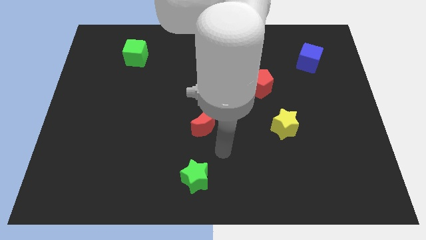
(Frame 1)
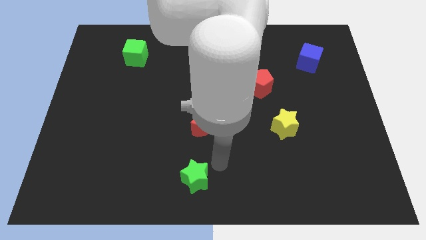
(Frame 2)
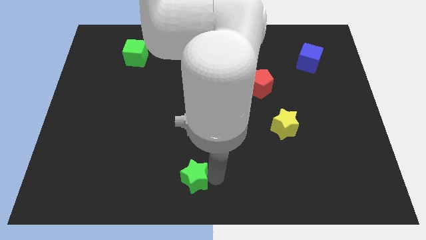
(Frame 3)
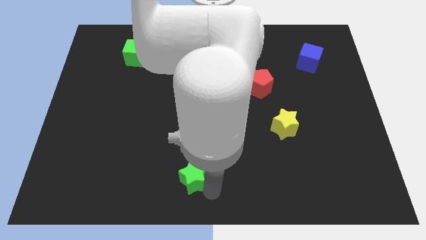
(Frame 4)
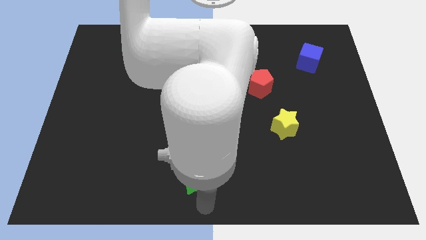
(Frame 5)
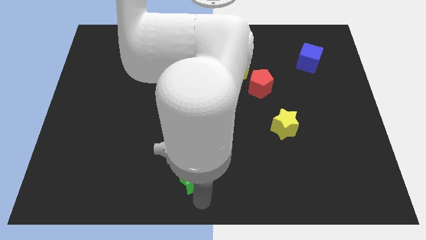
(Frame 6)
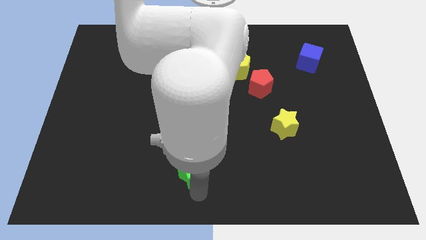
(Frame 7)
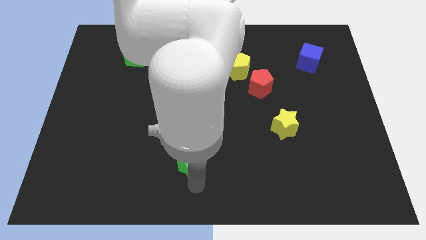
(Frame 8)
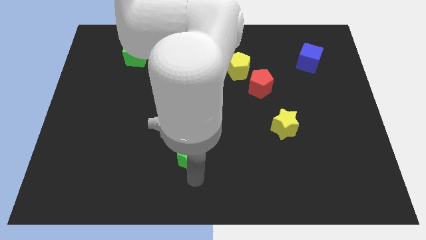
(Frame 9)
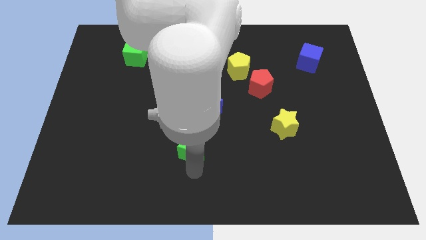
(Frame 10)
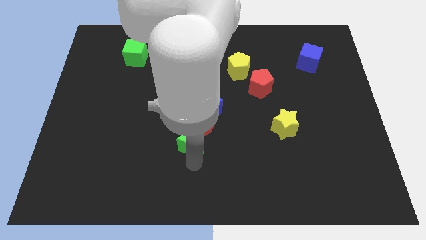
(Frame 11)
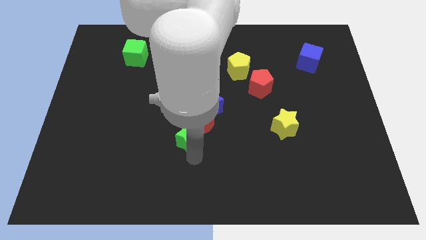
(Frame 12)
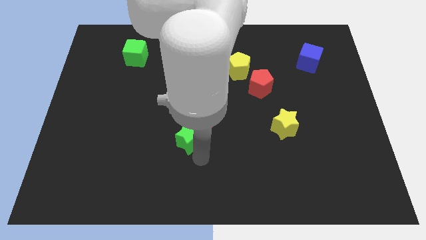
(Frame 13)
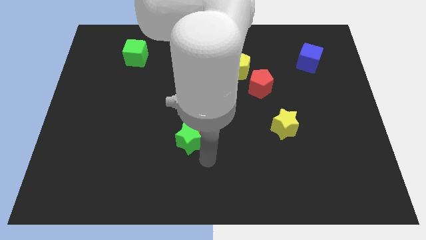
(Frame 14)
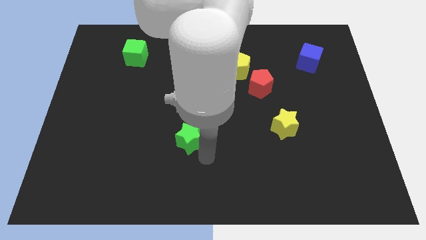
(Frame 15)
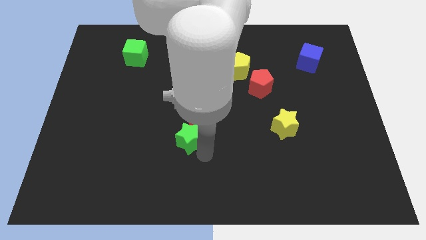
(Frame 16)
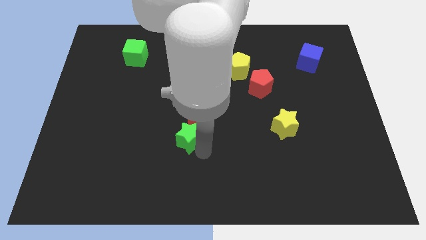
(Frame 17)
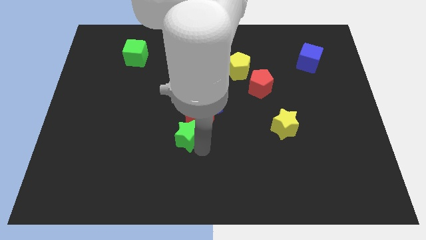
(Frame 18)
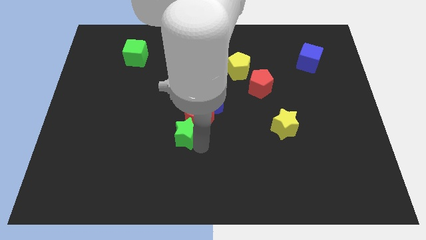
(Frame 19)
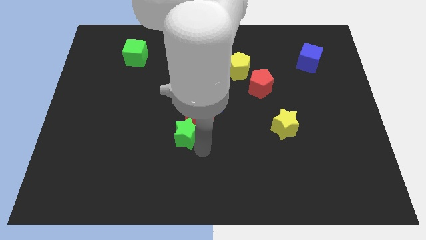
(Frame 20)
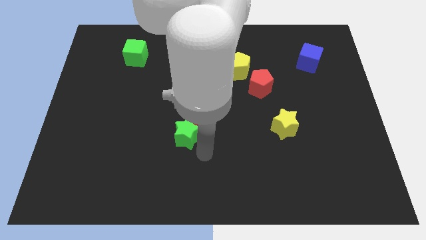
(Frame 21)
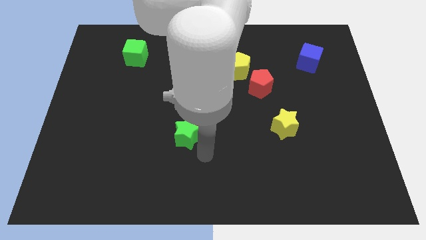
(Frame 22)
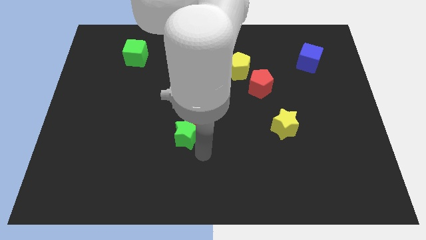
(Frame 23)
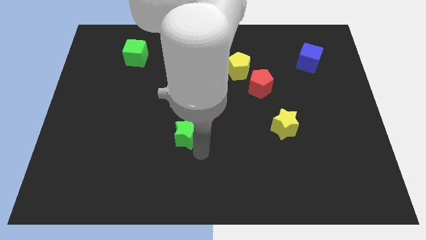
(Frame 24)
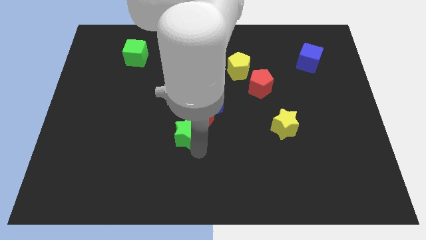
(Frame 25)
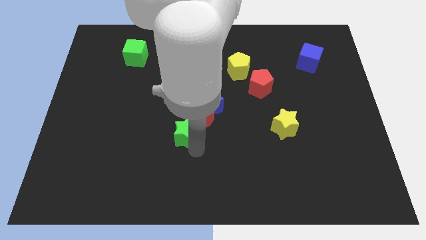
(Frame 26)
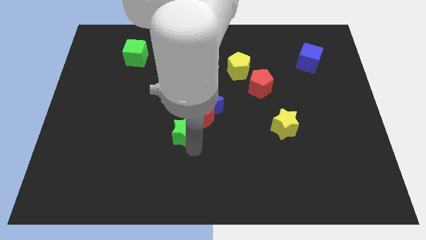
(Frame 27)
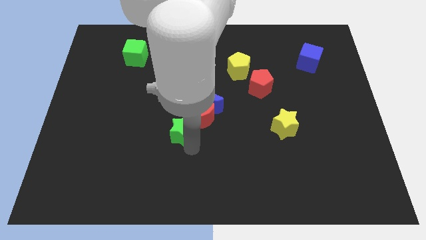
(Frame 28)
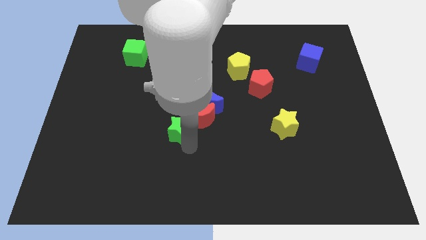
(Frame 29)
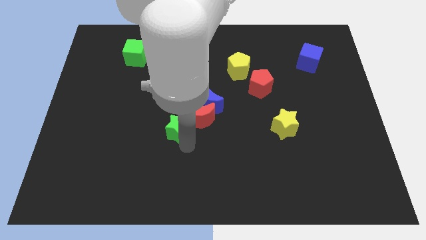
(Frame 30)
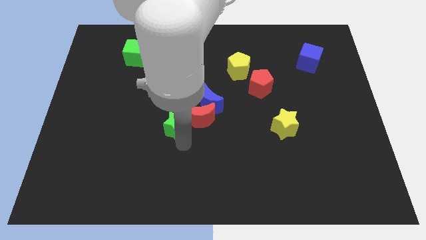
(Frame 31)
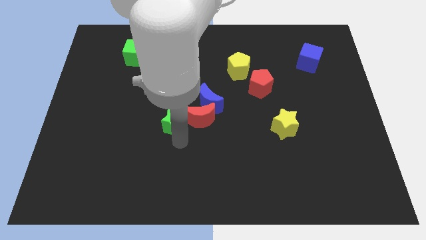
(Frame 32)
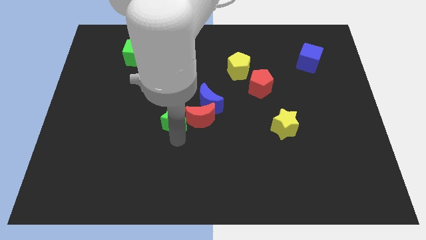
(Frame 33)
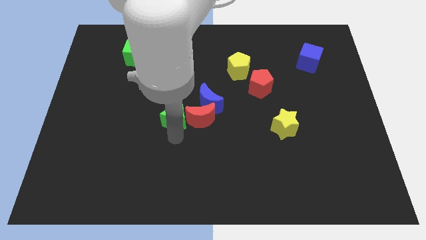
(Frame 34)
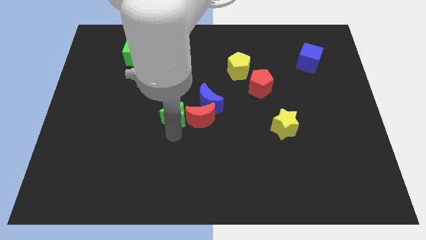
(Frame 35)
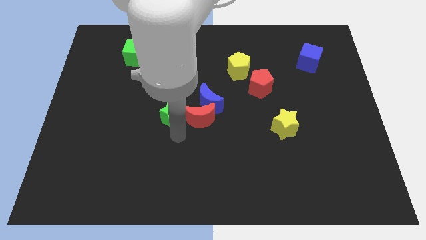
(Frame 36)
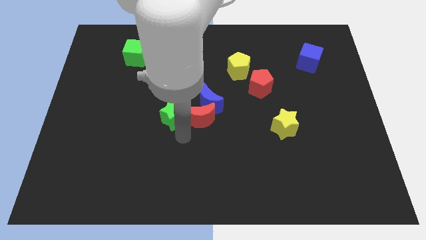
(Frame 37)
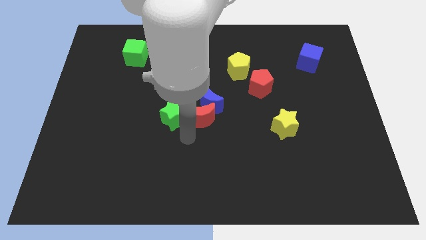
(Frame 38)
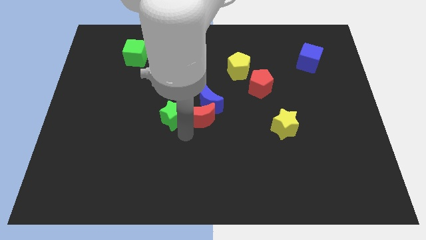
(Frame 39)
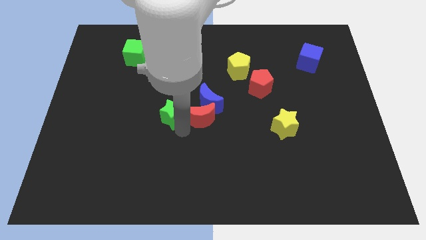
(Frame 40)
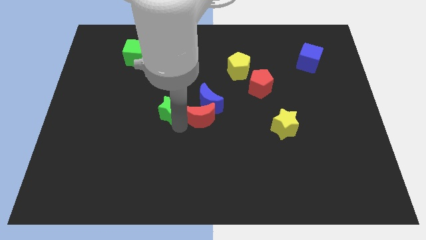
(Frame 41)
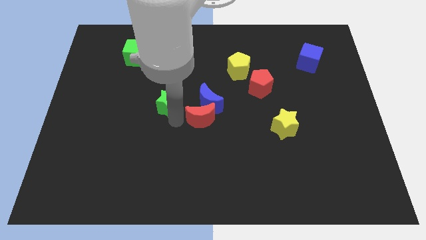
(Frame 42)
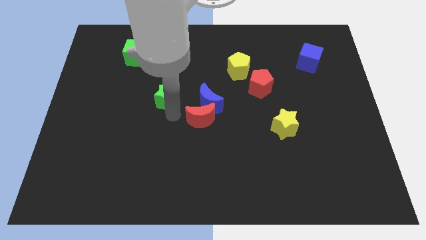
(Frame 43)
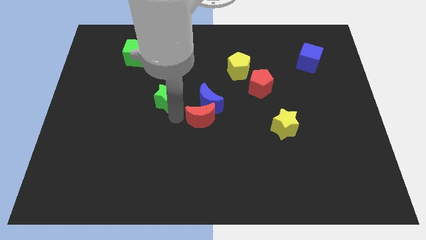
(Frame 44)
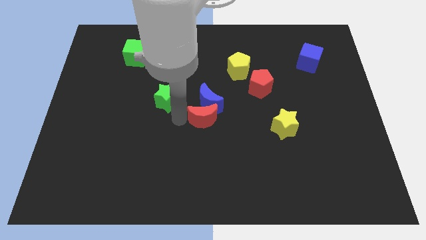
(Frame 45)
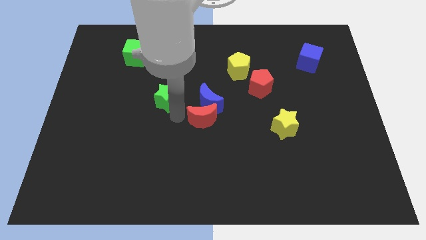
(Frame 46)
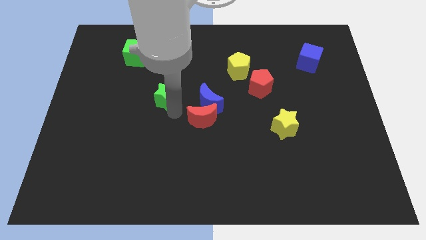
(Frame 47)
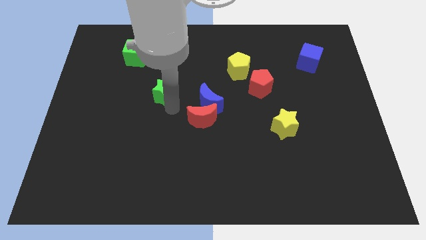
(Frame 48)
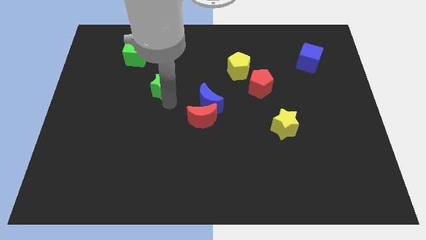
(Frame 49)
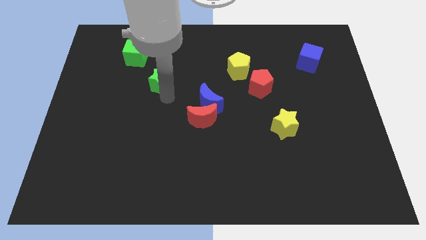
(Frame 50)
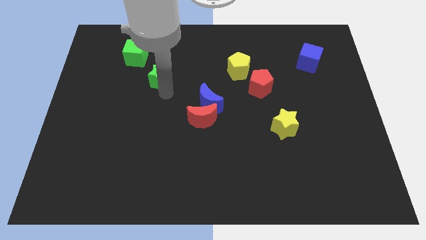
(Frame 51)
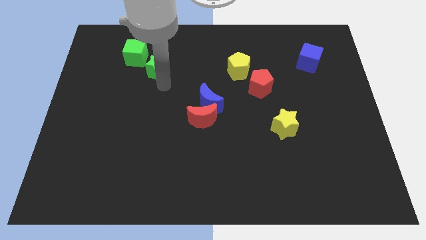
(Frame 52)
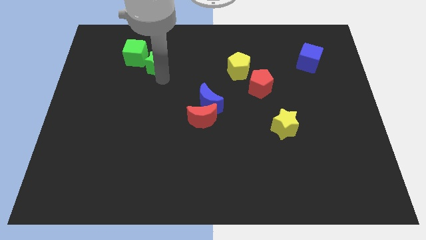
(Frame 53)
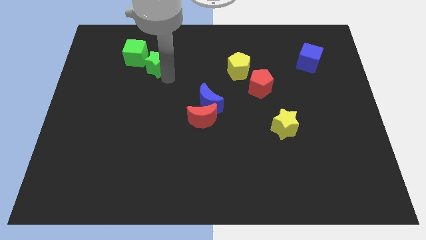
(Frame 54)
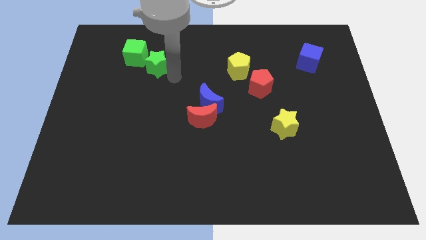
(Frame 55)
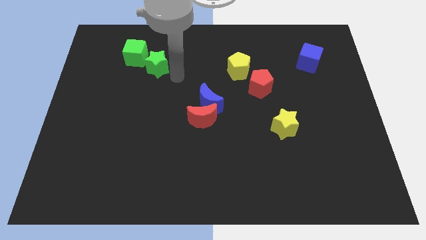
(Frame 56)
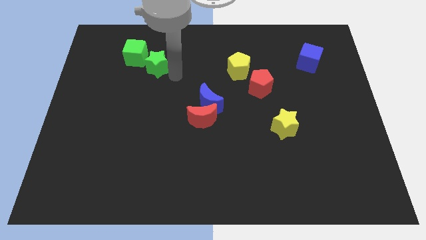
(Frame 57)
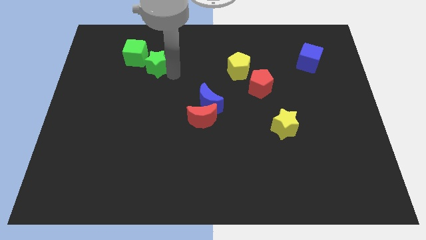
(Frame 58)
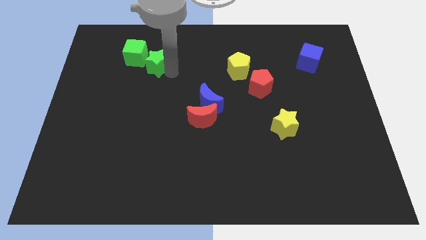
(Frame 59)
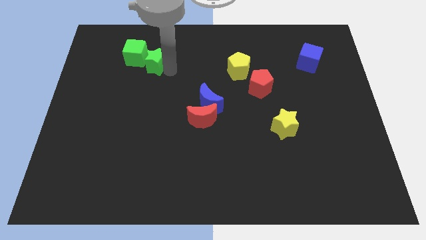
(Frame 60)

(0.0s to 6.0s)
push the green star next to the green cube

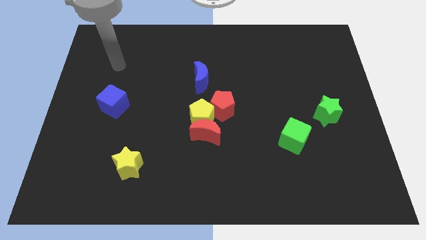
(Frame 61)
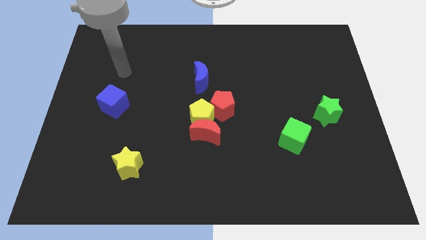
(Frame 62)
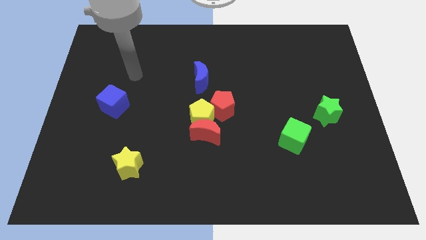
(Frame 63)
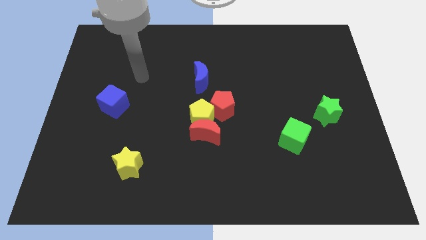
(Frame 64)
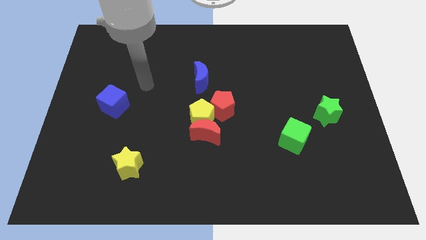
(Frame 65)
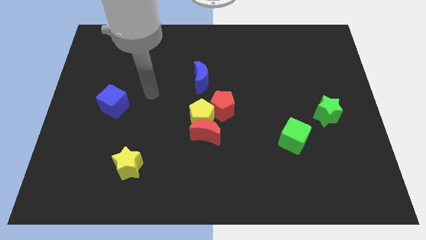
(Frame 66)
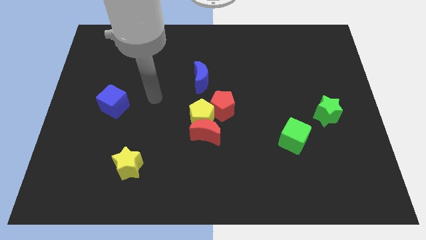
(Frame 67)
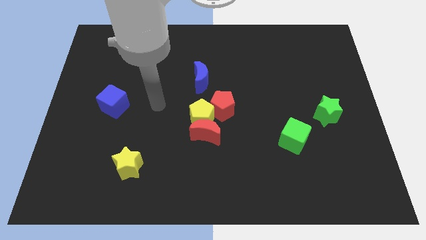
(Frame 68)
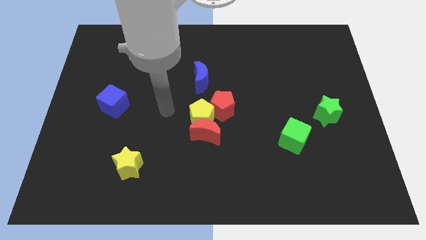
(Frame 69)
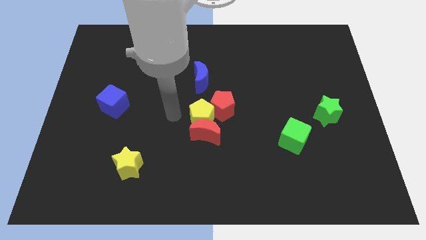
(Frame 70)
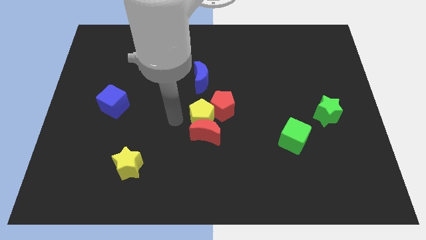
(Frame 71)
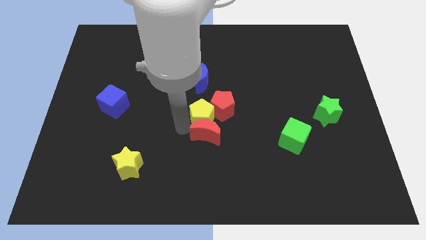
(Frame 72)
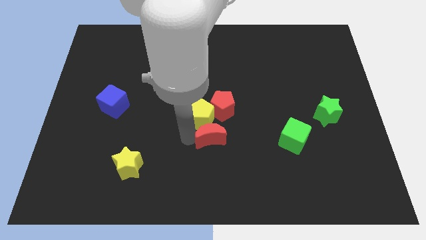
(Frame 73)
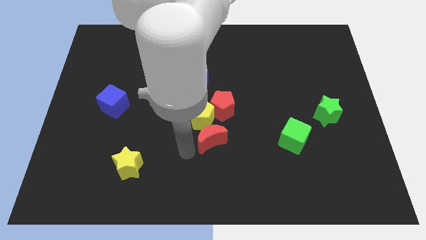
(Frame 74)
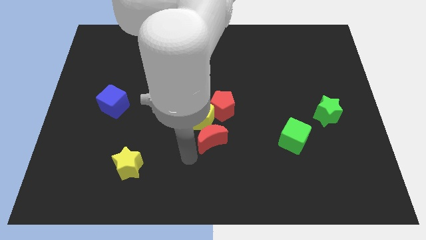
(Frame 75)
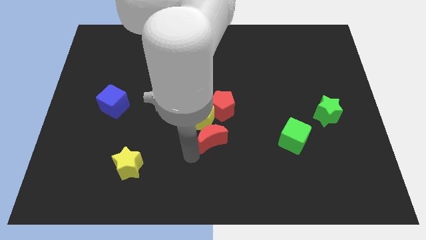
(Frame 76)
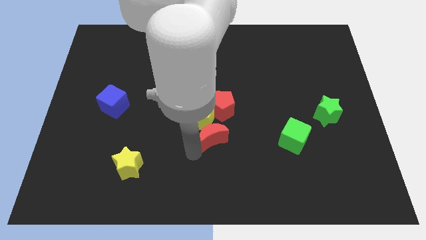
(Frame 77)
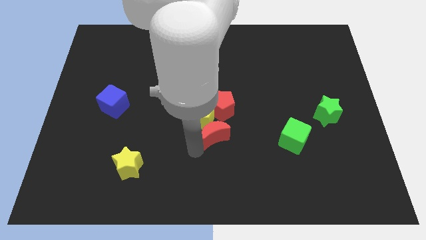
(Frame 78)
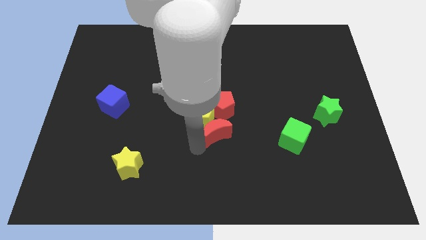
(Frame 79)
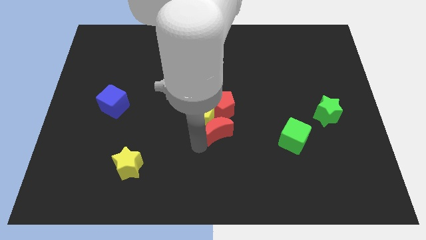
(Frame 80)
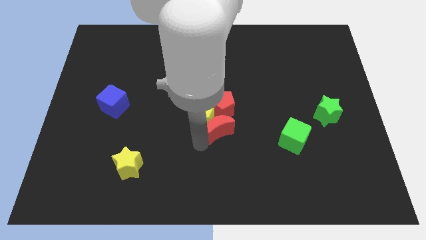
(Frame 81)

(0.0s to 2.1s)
push the red moon to the red pentagon
